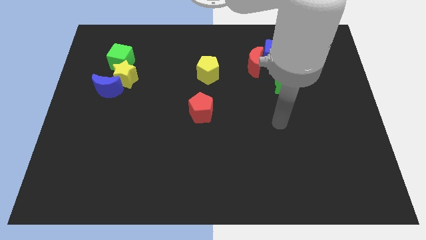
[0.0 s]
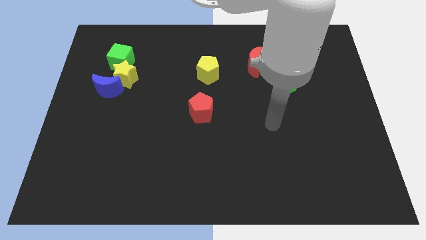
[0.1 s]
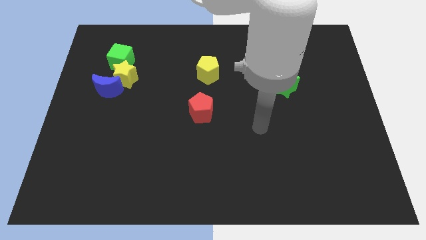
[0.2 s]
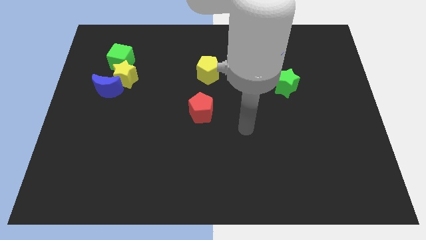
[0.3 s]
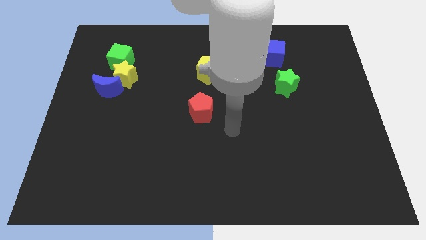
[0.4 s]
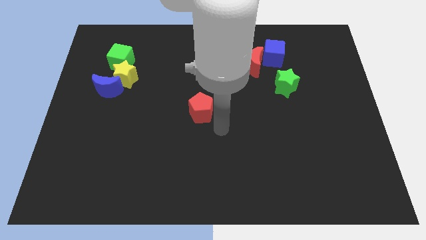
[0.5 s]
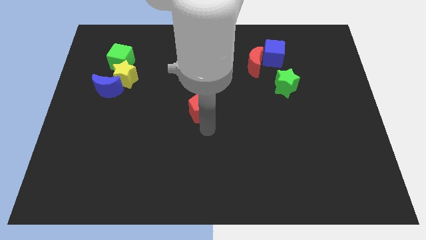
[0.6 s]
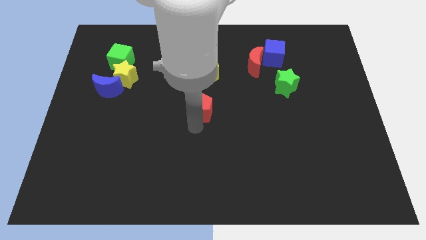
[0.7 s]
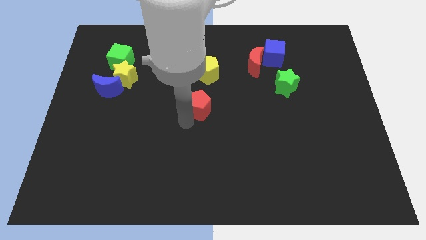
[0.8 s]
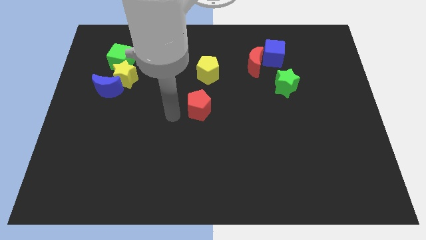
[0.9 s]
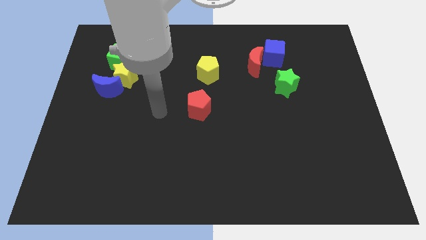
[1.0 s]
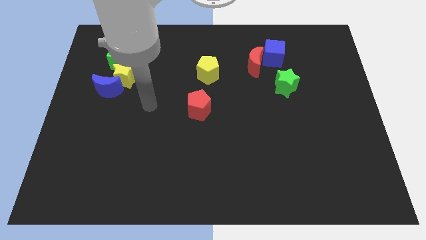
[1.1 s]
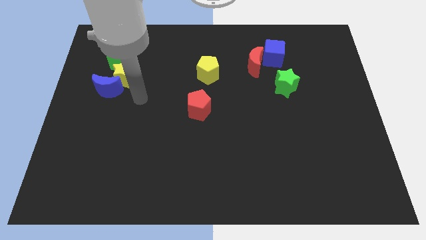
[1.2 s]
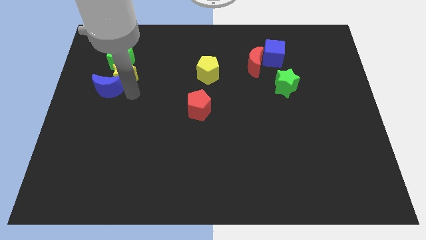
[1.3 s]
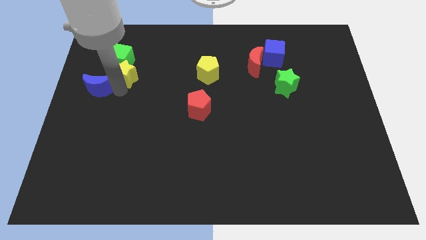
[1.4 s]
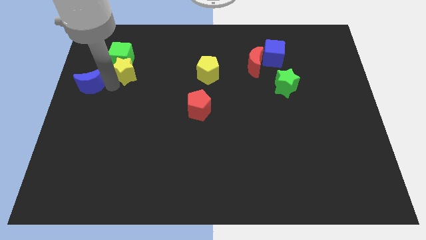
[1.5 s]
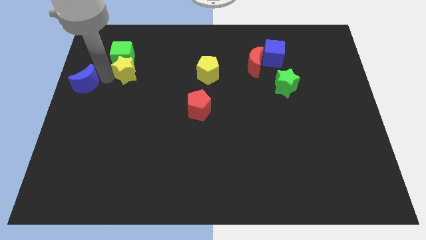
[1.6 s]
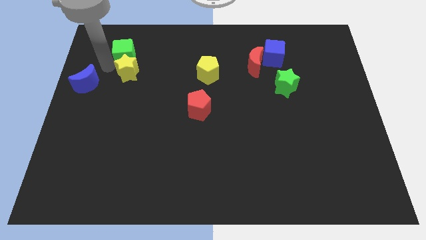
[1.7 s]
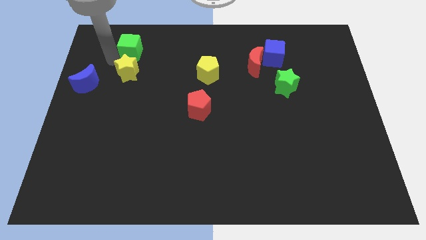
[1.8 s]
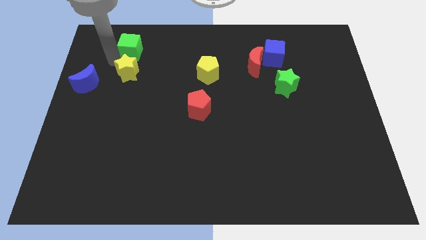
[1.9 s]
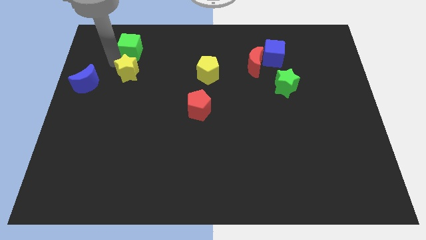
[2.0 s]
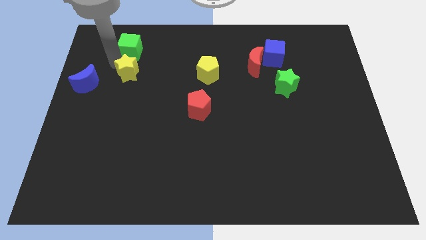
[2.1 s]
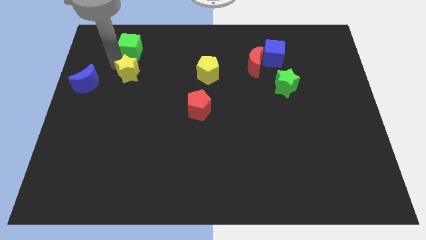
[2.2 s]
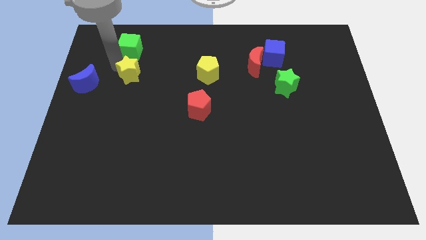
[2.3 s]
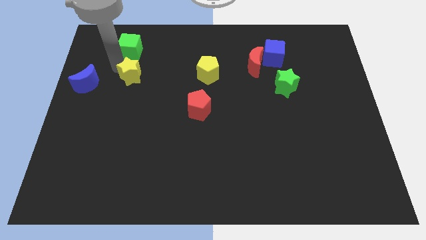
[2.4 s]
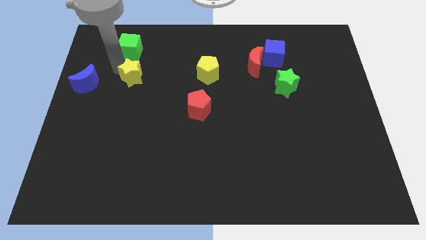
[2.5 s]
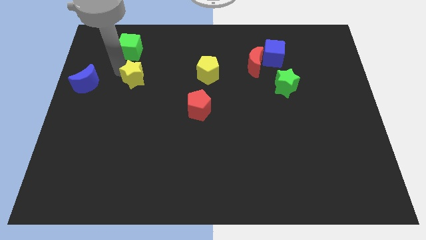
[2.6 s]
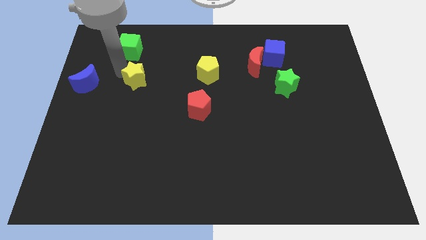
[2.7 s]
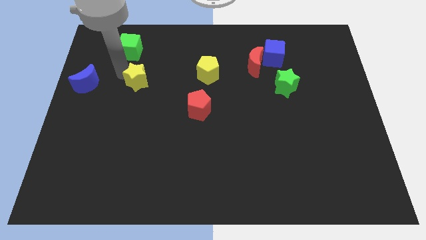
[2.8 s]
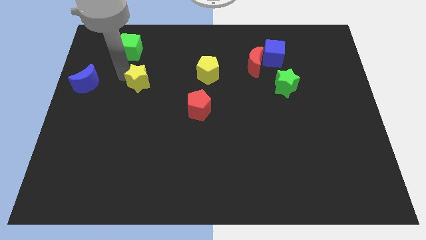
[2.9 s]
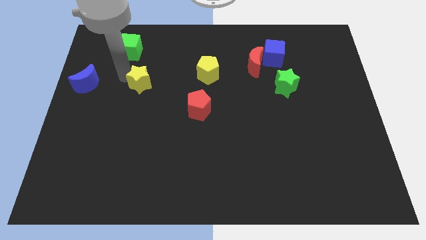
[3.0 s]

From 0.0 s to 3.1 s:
pull the yellow star apart from the blue moon and green cube

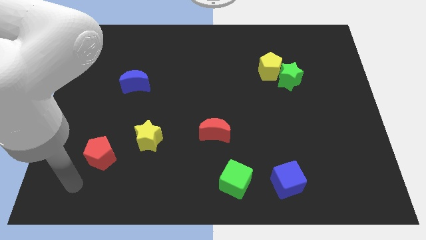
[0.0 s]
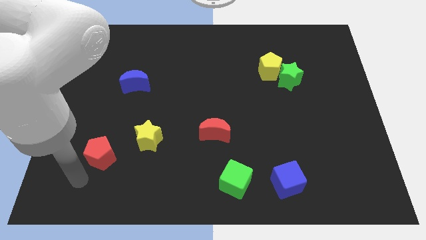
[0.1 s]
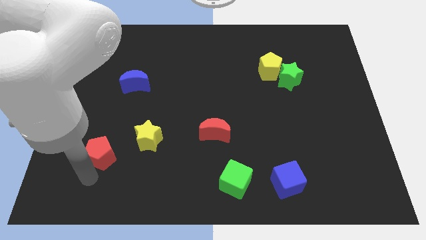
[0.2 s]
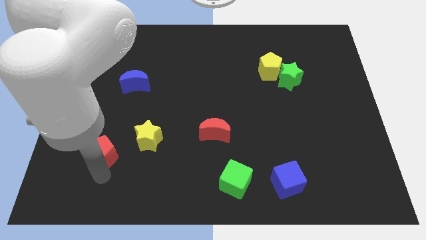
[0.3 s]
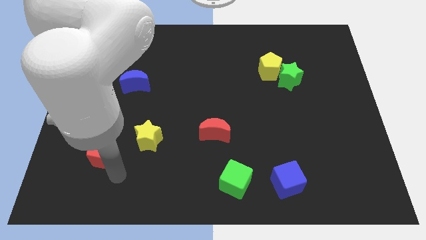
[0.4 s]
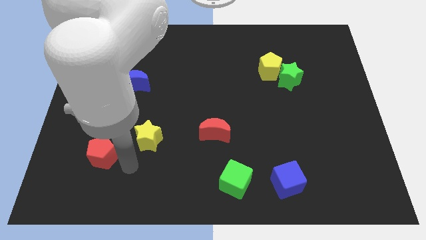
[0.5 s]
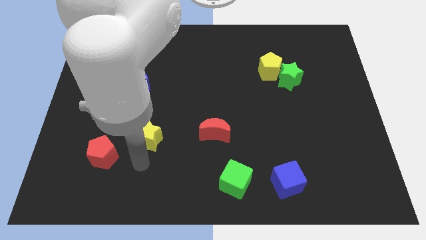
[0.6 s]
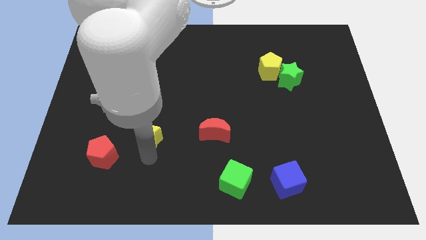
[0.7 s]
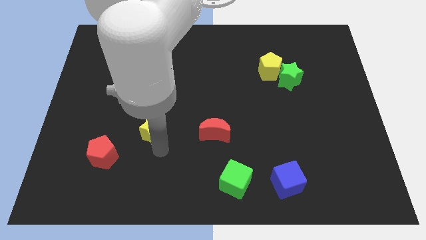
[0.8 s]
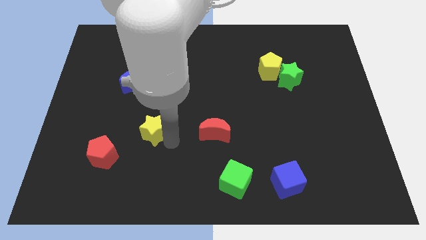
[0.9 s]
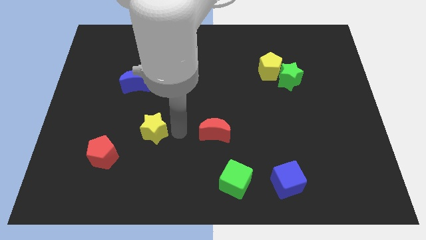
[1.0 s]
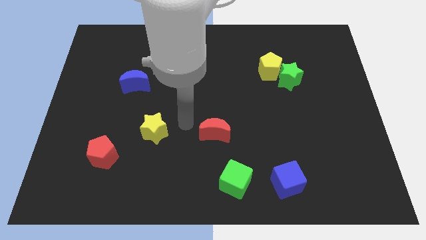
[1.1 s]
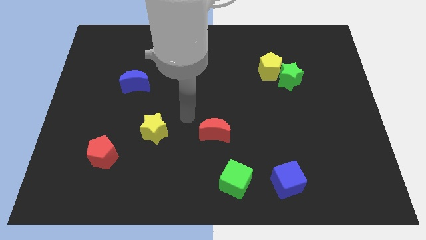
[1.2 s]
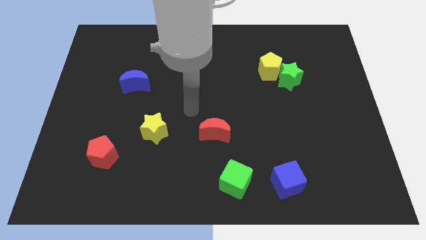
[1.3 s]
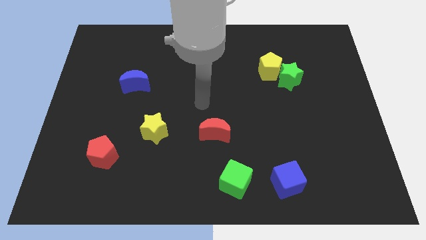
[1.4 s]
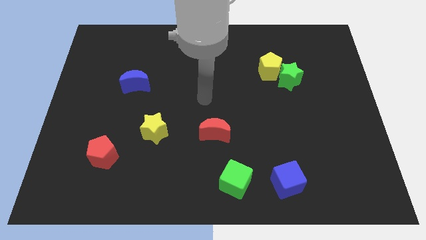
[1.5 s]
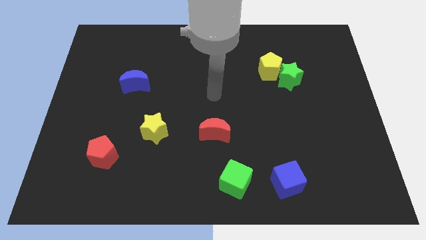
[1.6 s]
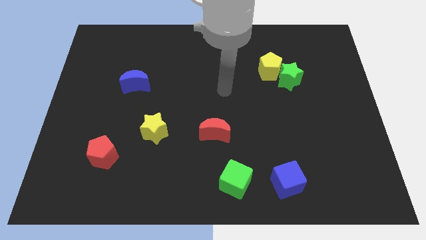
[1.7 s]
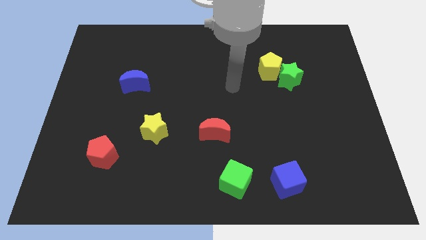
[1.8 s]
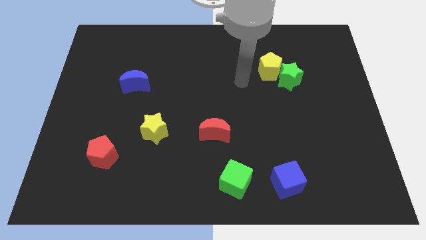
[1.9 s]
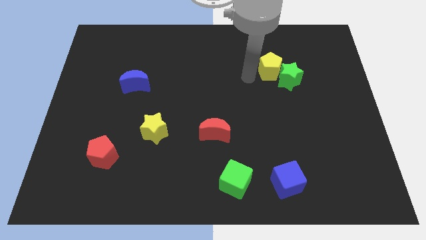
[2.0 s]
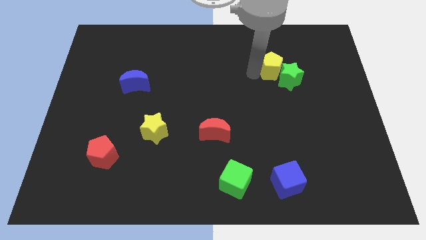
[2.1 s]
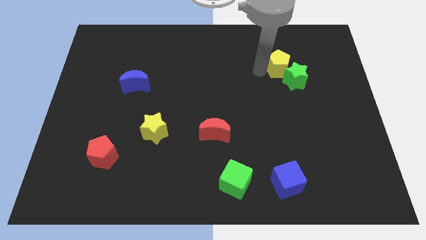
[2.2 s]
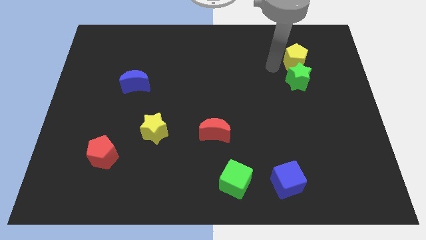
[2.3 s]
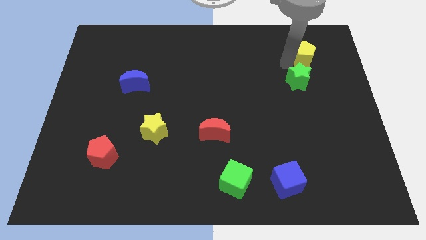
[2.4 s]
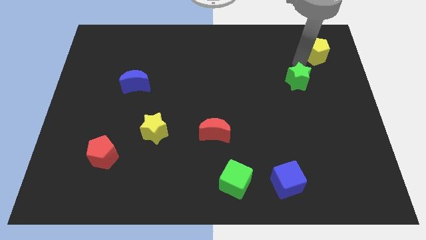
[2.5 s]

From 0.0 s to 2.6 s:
move the green star away from the yellow pentagon

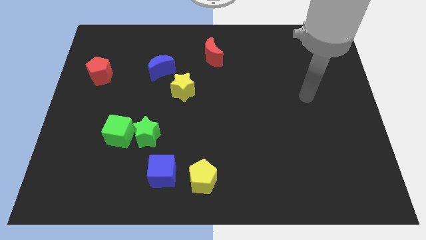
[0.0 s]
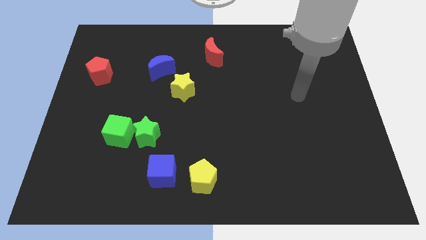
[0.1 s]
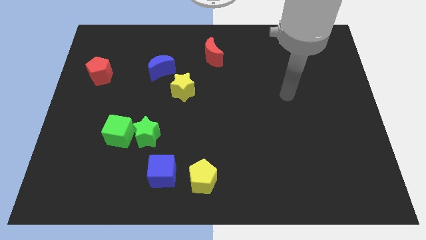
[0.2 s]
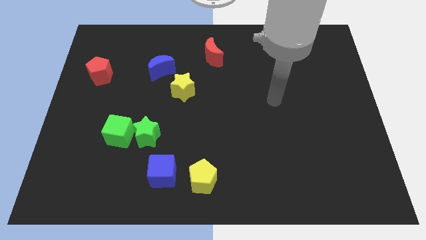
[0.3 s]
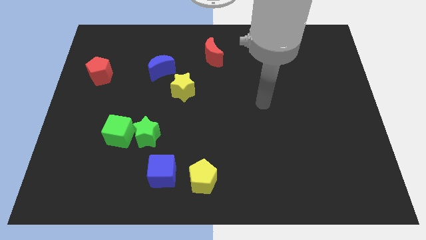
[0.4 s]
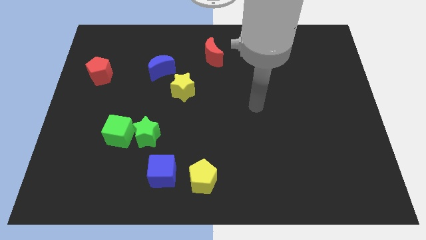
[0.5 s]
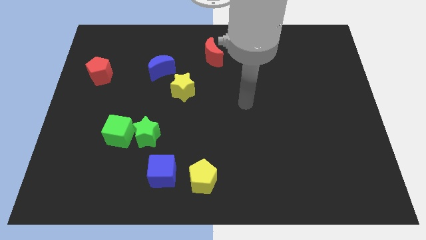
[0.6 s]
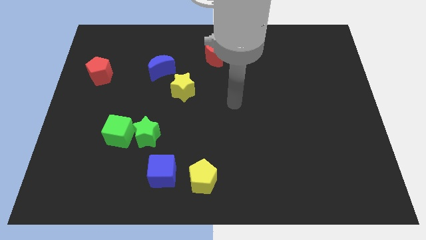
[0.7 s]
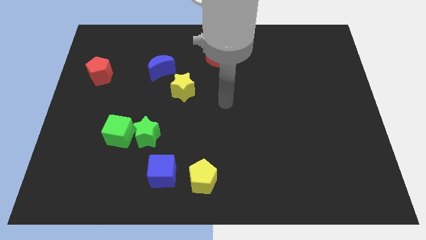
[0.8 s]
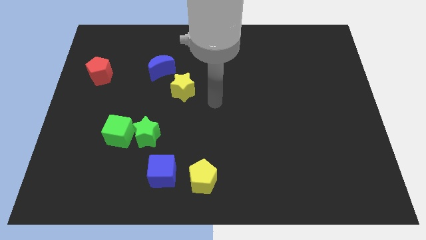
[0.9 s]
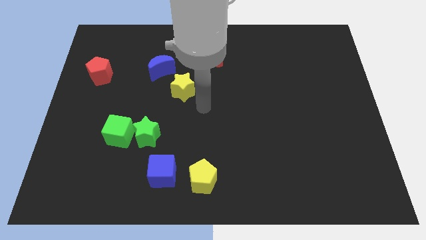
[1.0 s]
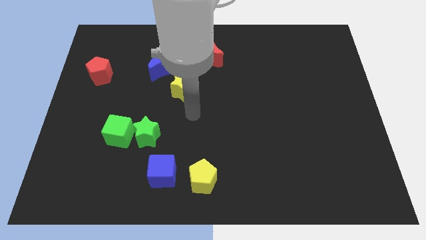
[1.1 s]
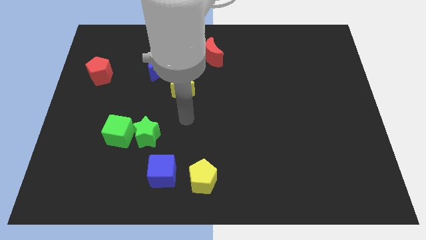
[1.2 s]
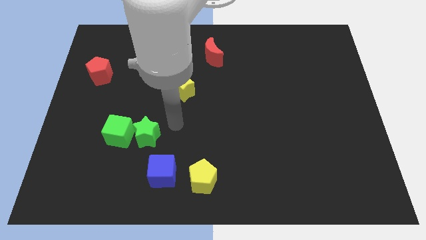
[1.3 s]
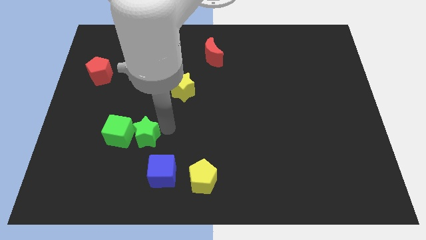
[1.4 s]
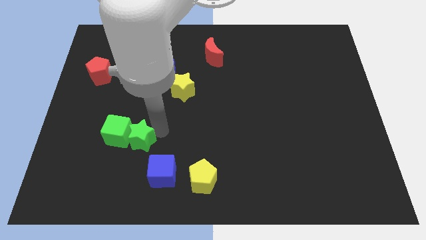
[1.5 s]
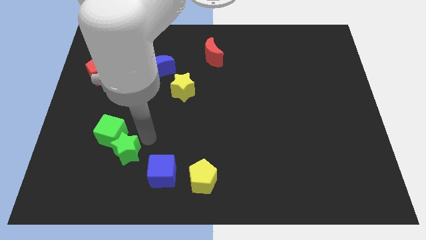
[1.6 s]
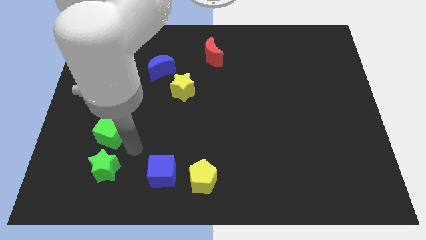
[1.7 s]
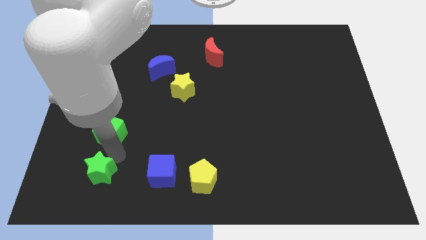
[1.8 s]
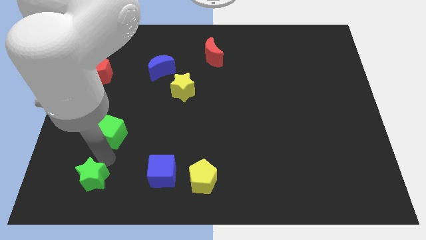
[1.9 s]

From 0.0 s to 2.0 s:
move the green cube away from the green star

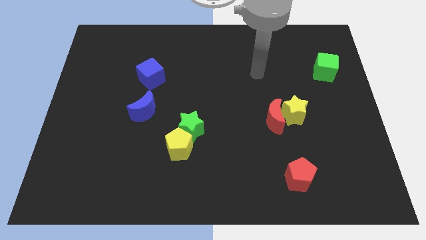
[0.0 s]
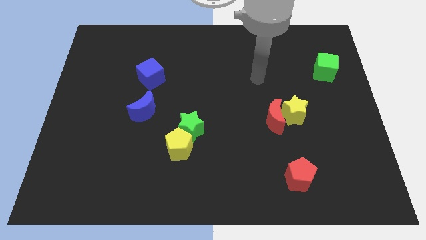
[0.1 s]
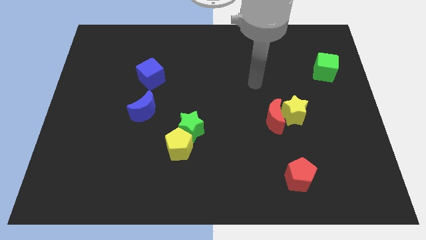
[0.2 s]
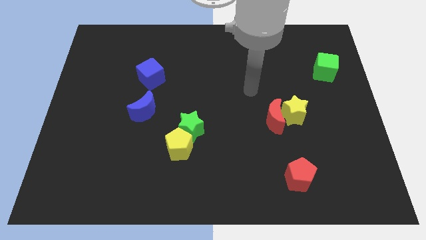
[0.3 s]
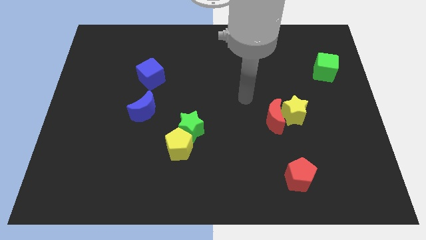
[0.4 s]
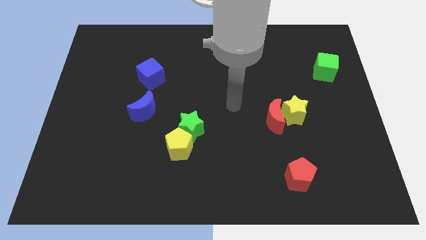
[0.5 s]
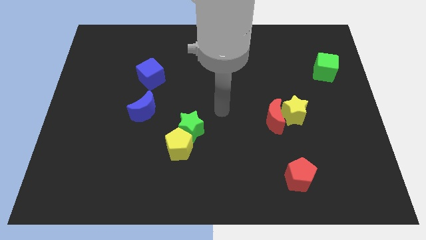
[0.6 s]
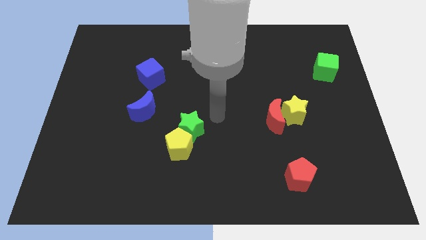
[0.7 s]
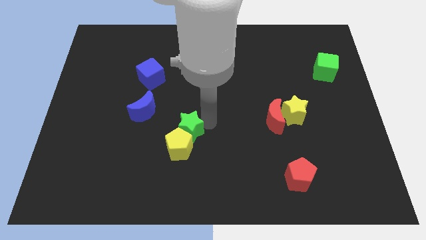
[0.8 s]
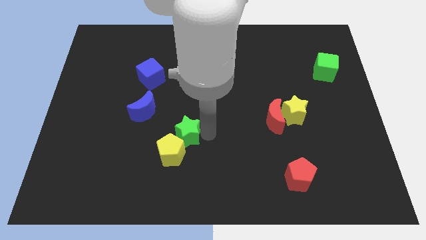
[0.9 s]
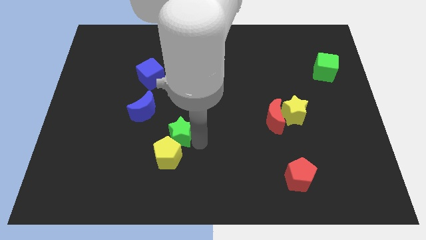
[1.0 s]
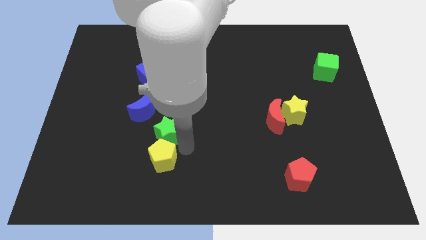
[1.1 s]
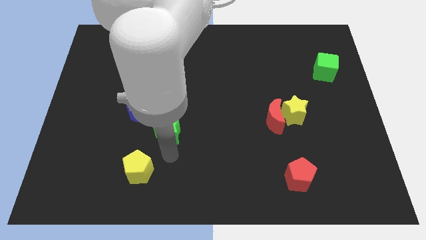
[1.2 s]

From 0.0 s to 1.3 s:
pull the green star apart from the yellow pentagon

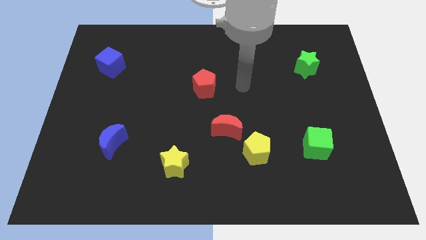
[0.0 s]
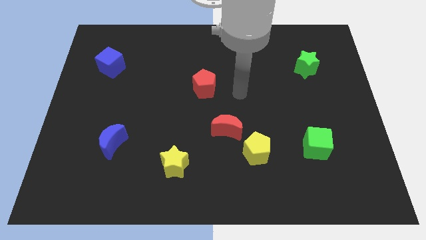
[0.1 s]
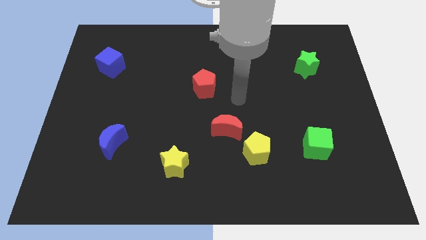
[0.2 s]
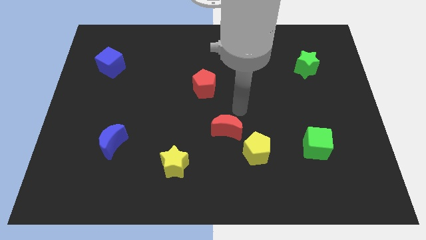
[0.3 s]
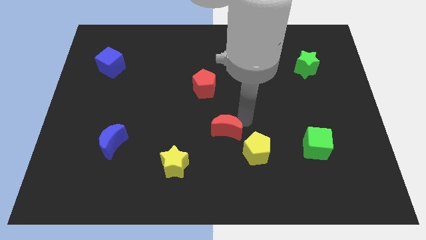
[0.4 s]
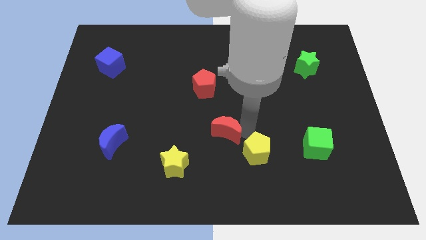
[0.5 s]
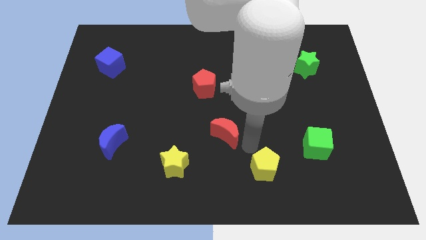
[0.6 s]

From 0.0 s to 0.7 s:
move the red moon away from the yellow pentagon
